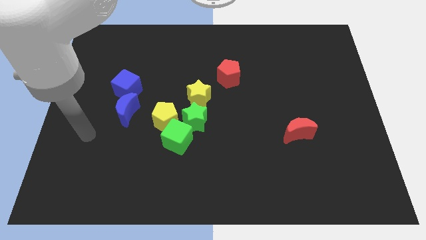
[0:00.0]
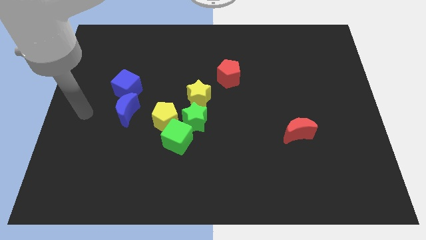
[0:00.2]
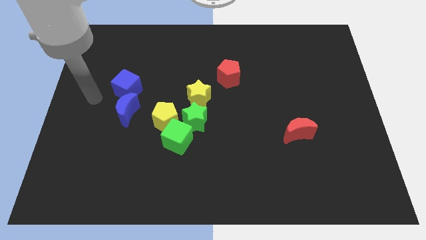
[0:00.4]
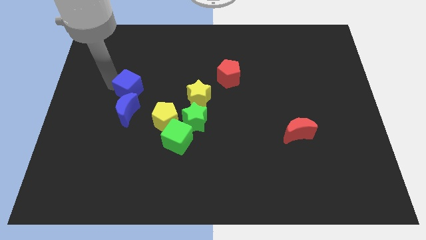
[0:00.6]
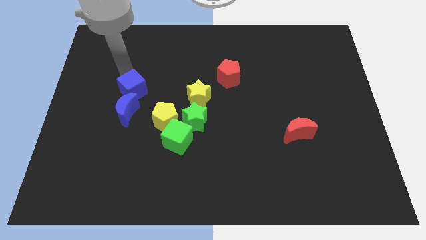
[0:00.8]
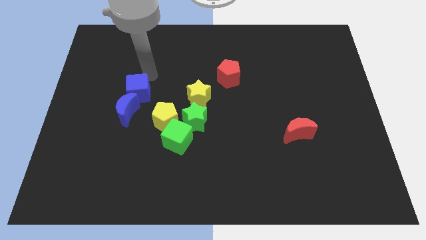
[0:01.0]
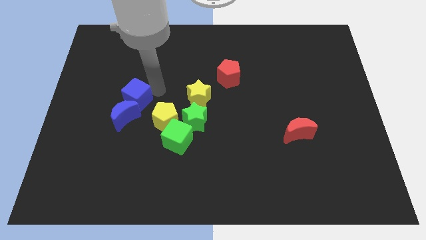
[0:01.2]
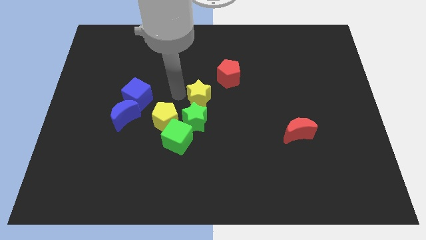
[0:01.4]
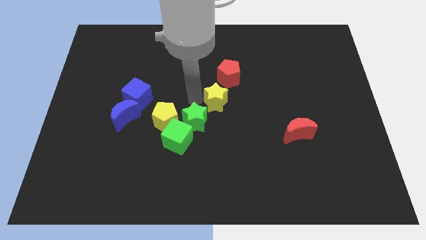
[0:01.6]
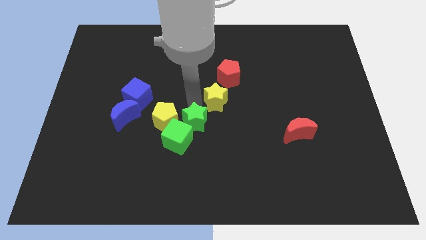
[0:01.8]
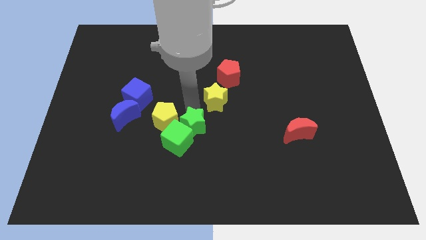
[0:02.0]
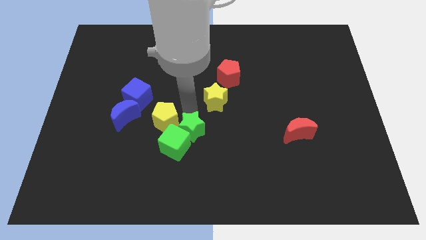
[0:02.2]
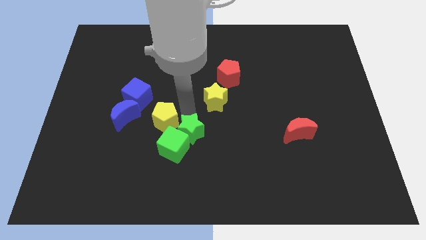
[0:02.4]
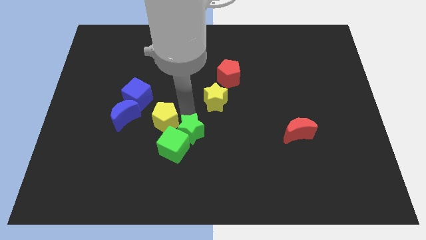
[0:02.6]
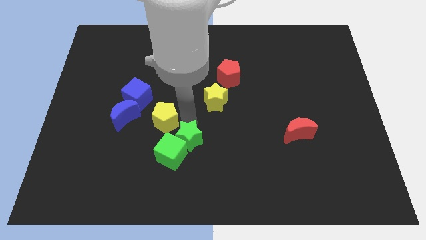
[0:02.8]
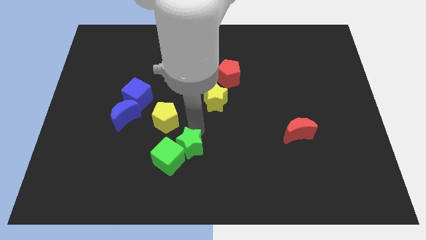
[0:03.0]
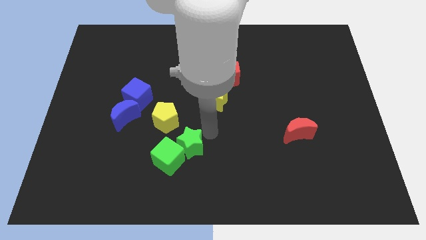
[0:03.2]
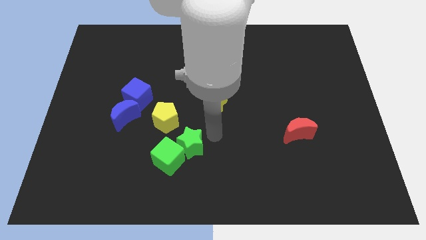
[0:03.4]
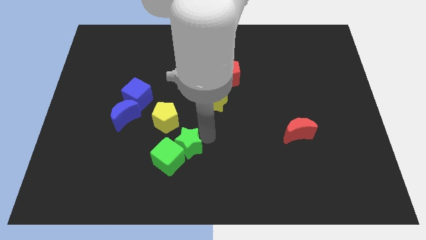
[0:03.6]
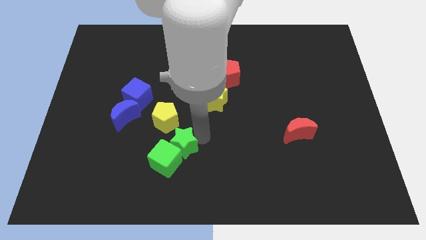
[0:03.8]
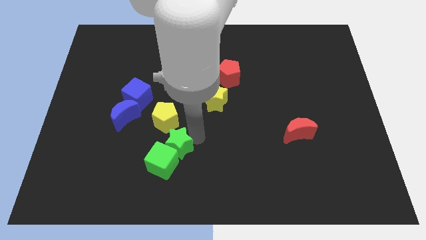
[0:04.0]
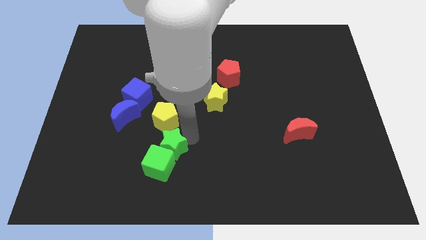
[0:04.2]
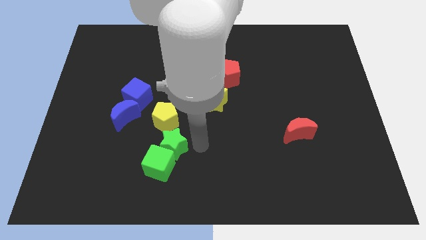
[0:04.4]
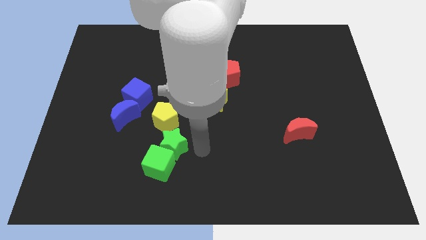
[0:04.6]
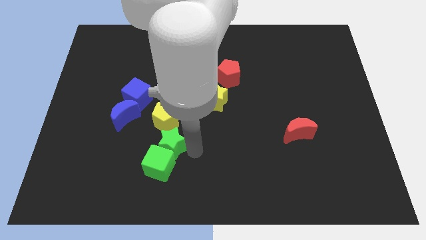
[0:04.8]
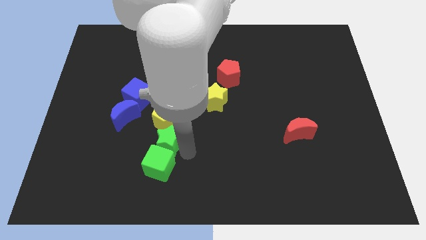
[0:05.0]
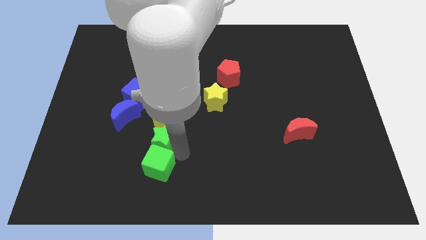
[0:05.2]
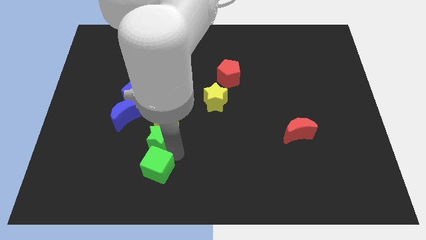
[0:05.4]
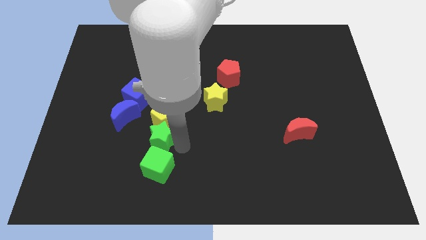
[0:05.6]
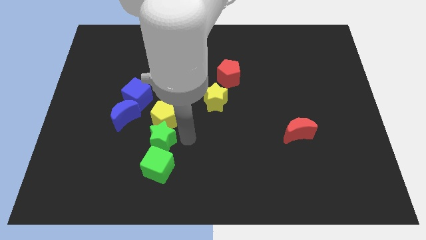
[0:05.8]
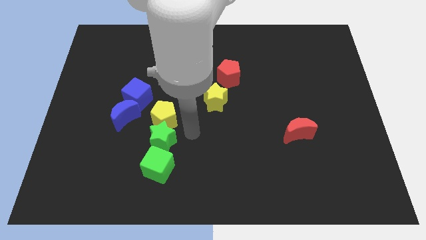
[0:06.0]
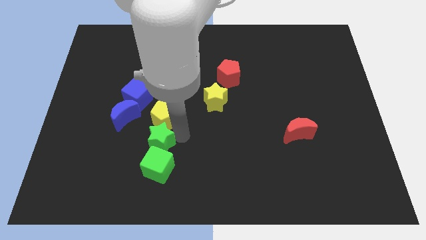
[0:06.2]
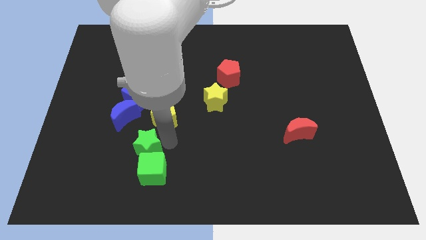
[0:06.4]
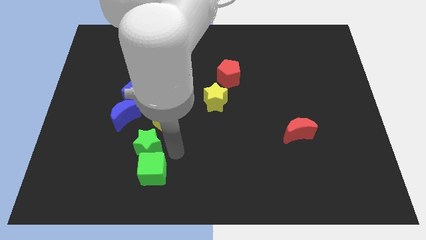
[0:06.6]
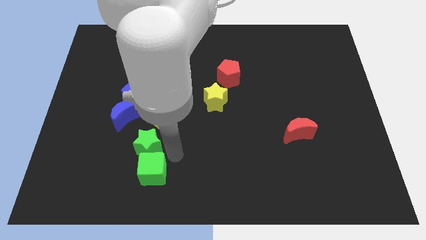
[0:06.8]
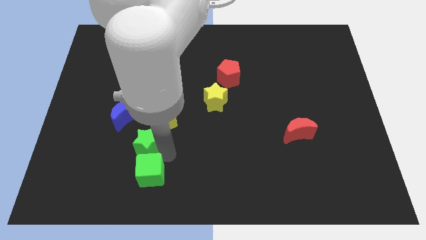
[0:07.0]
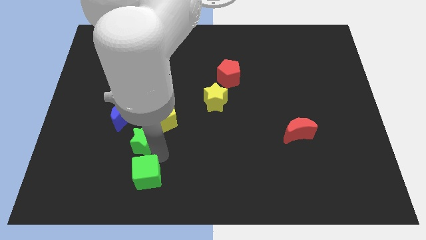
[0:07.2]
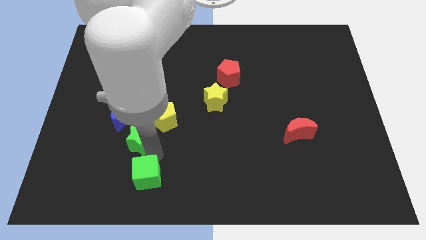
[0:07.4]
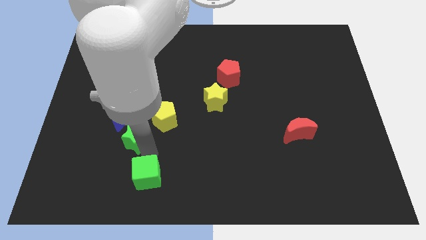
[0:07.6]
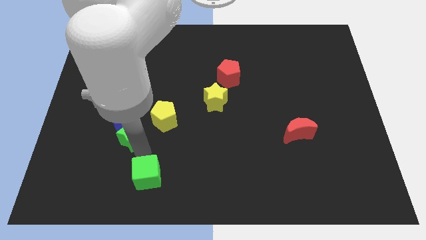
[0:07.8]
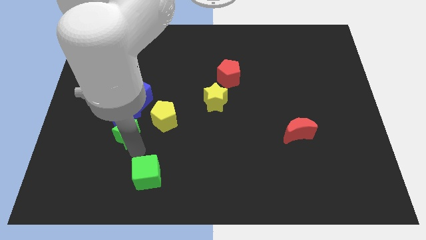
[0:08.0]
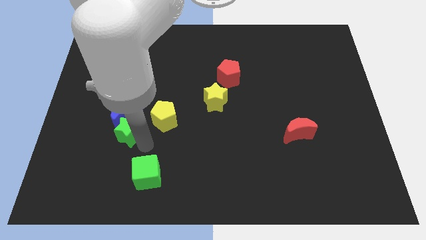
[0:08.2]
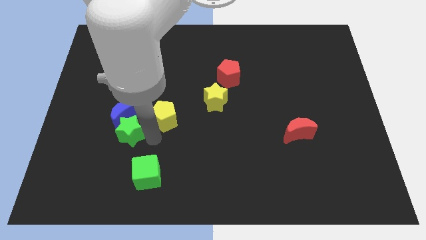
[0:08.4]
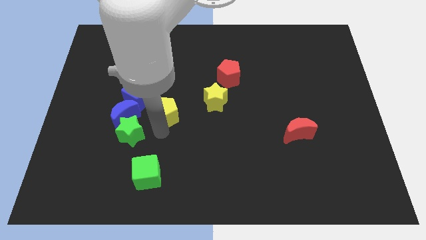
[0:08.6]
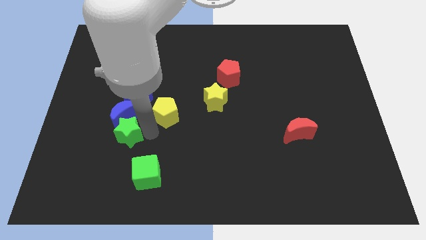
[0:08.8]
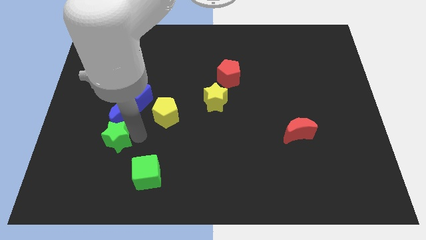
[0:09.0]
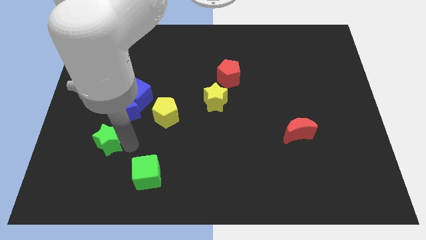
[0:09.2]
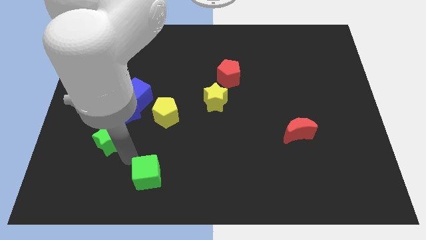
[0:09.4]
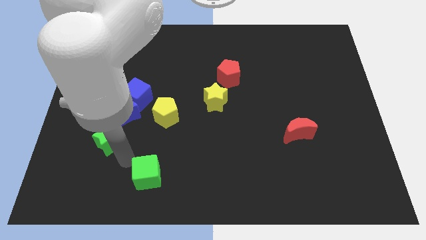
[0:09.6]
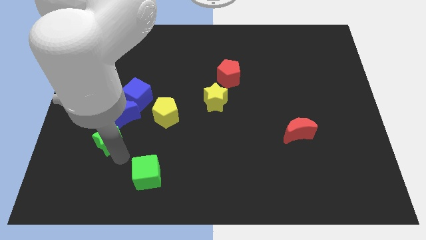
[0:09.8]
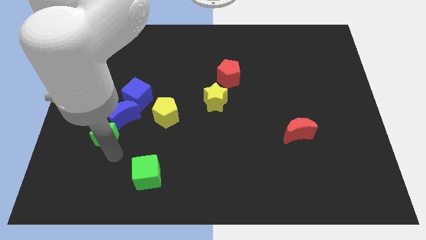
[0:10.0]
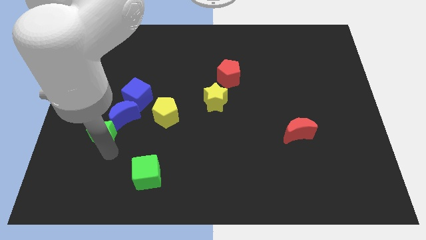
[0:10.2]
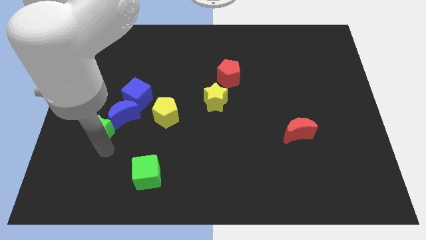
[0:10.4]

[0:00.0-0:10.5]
push the green star to the bottom left of the blue cube
